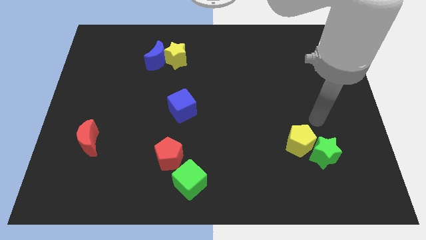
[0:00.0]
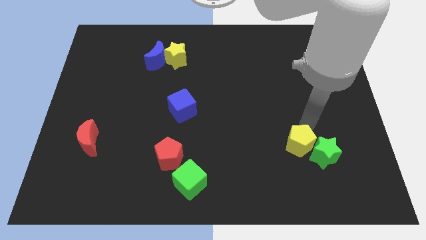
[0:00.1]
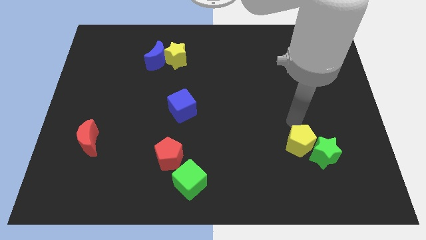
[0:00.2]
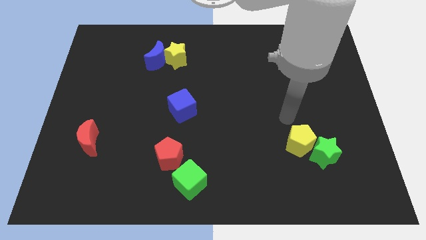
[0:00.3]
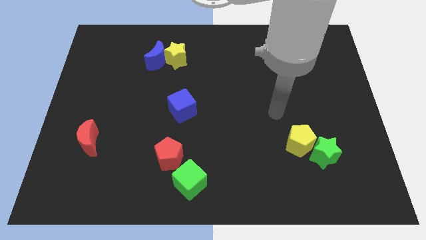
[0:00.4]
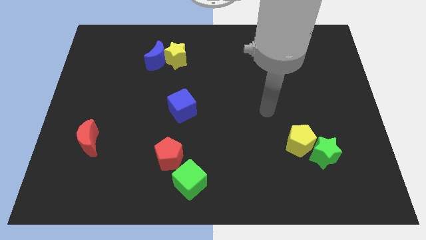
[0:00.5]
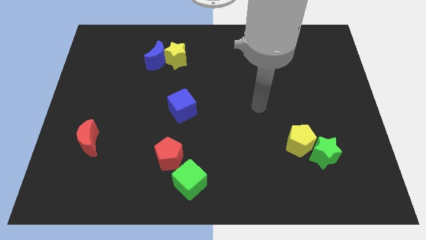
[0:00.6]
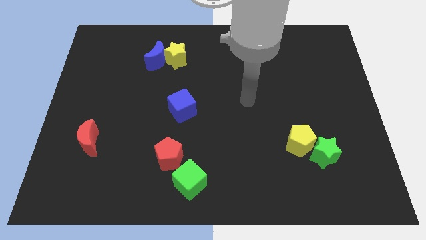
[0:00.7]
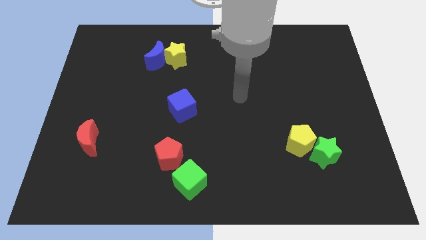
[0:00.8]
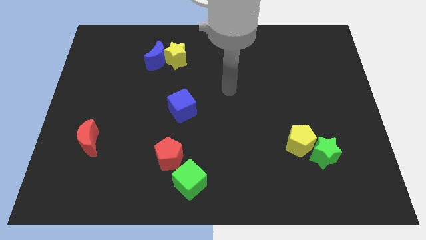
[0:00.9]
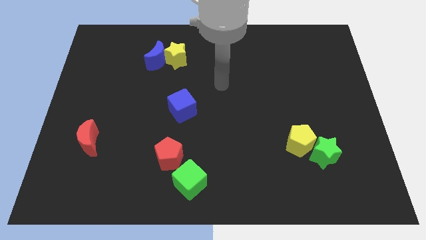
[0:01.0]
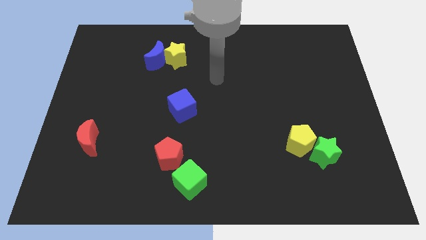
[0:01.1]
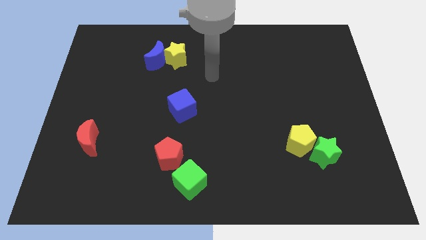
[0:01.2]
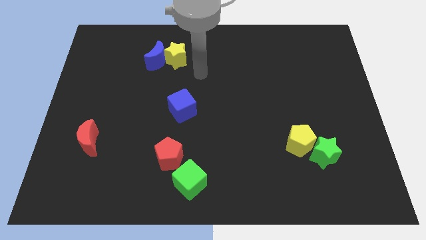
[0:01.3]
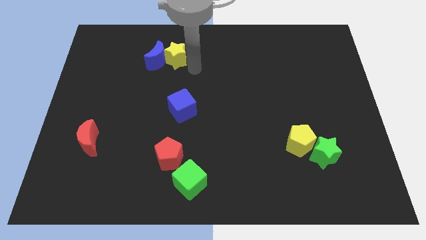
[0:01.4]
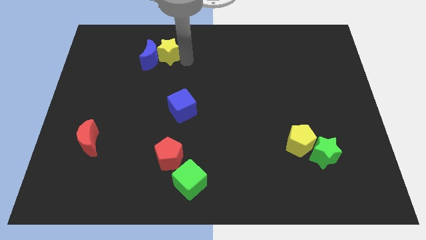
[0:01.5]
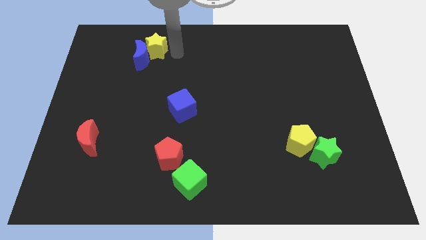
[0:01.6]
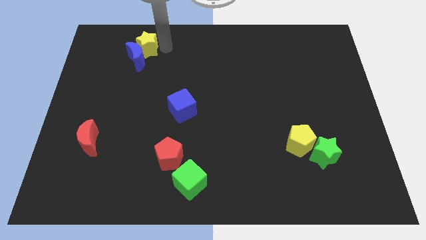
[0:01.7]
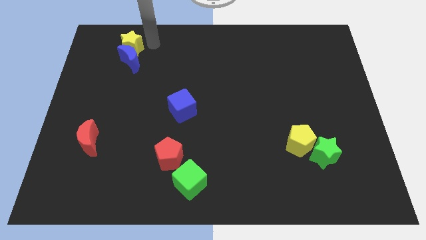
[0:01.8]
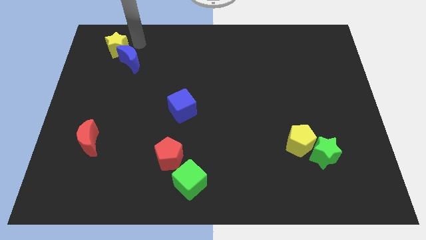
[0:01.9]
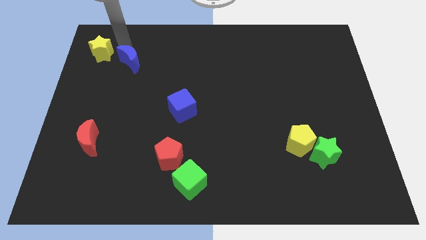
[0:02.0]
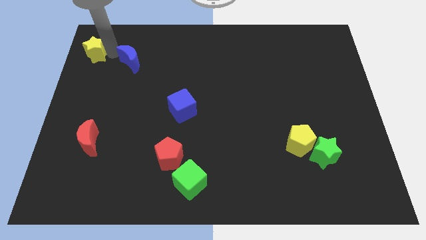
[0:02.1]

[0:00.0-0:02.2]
move the blue moon away from the yellow star

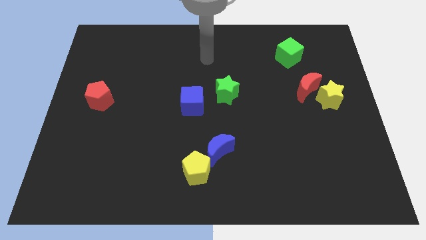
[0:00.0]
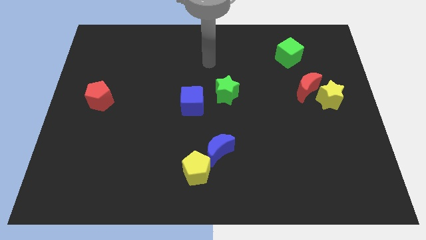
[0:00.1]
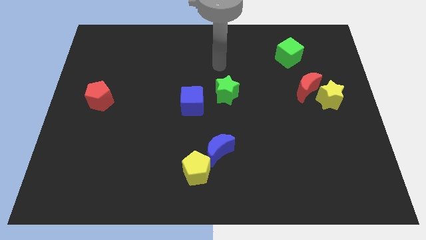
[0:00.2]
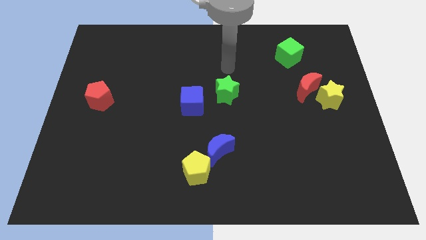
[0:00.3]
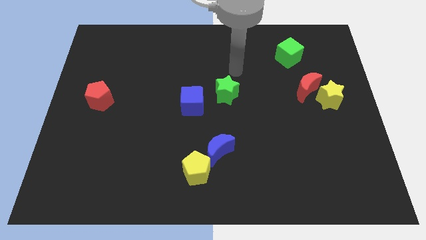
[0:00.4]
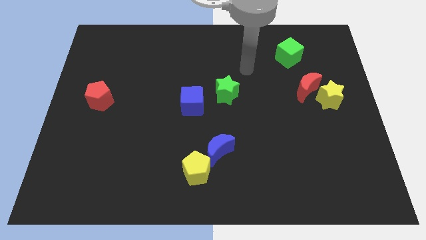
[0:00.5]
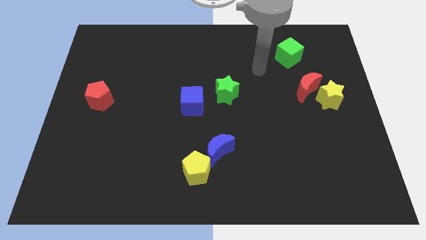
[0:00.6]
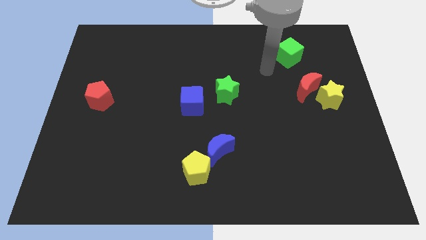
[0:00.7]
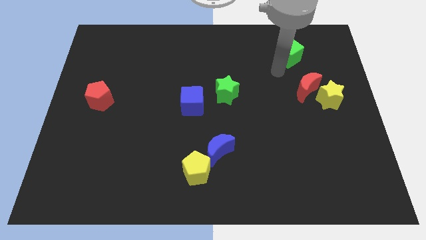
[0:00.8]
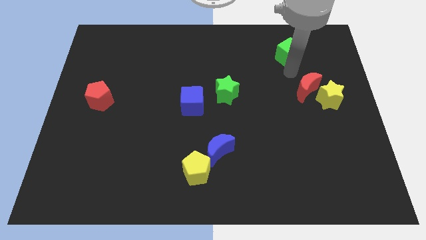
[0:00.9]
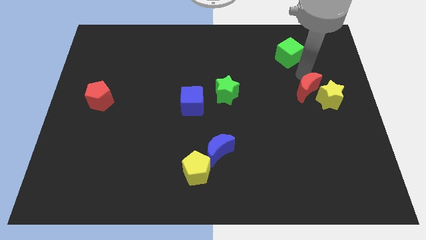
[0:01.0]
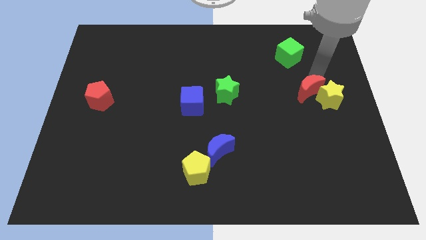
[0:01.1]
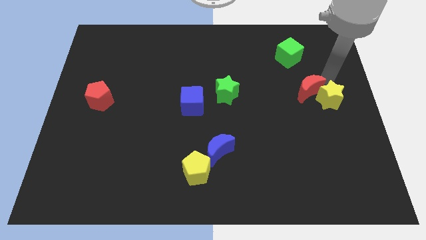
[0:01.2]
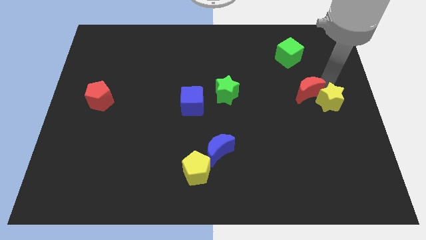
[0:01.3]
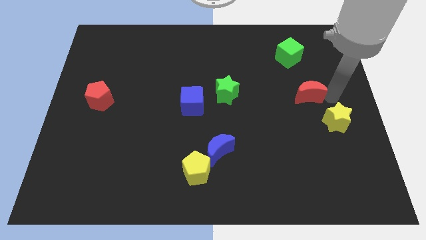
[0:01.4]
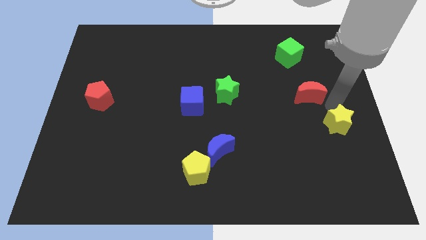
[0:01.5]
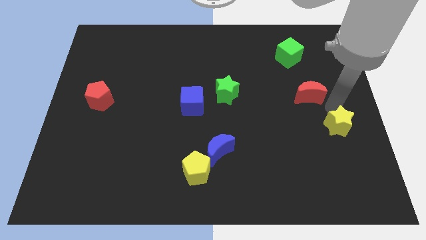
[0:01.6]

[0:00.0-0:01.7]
separate the red moon from the yellow star

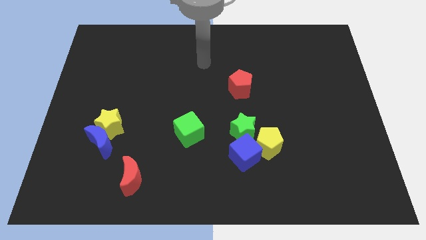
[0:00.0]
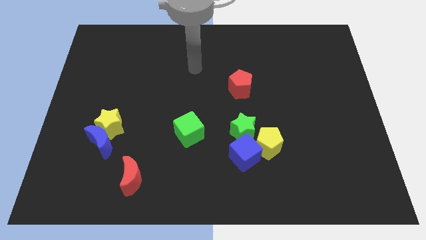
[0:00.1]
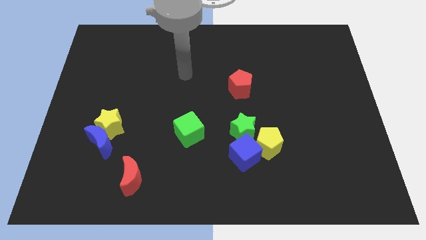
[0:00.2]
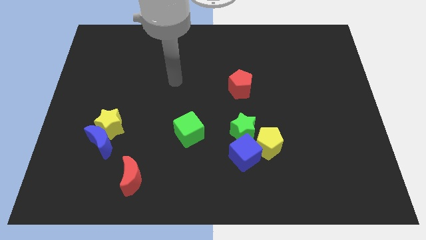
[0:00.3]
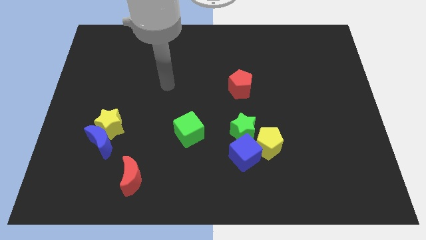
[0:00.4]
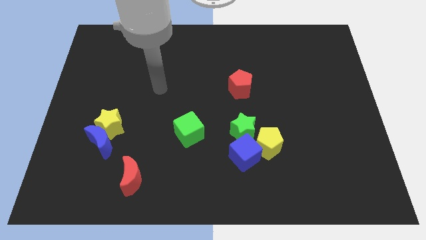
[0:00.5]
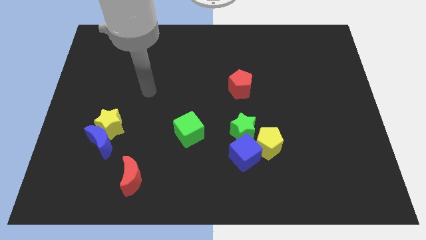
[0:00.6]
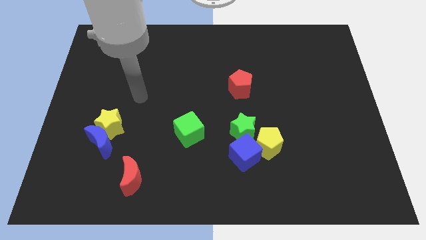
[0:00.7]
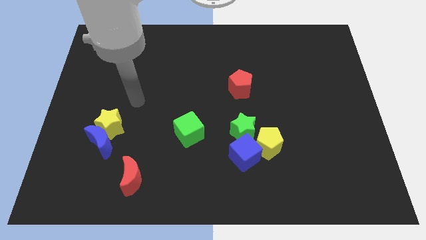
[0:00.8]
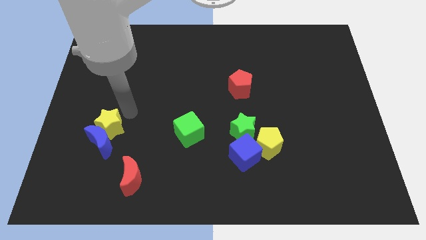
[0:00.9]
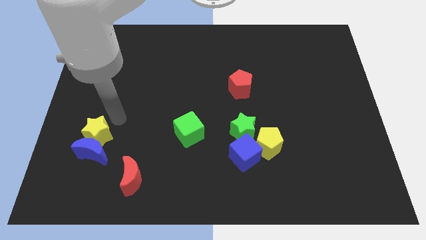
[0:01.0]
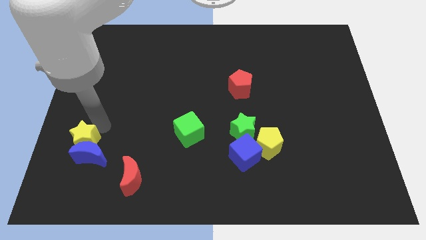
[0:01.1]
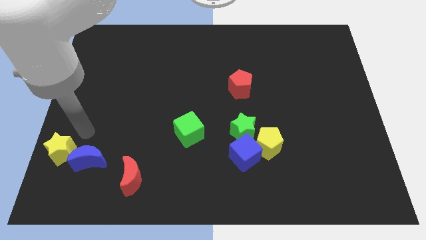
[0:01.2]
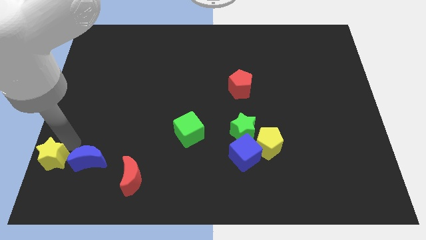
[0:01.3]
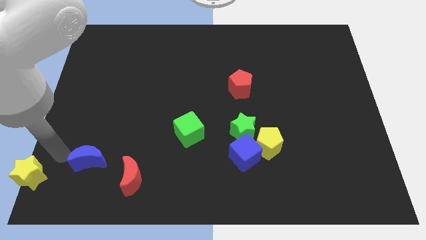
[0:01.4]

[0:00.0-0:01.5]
pull the blue moon apart from the yellow star

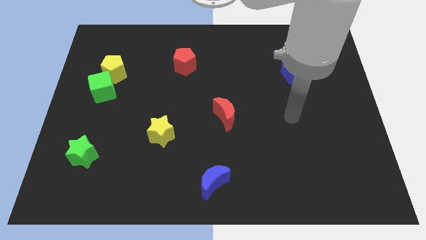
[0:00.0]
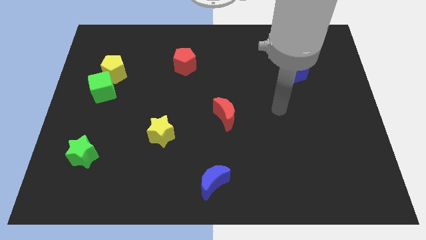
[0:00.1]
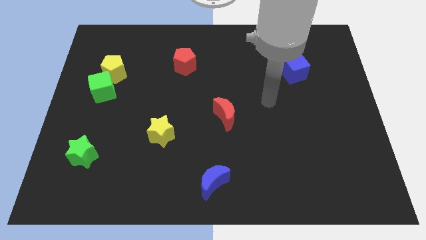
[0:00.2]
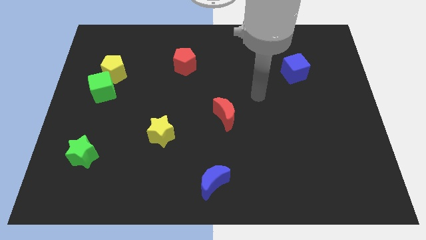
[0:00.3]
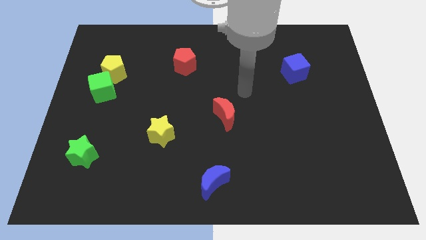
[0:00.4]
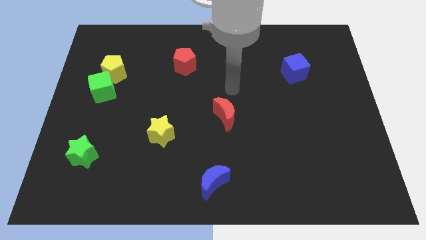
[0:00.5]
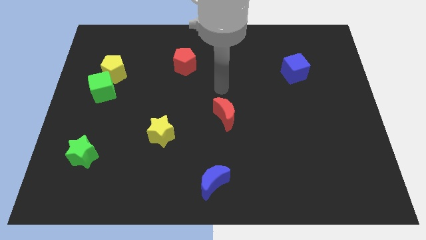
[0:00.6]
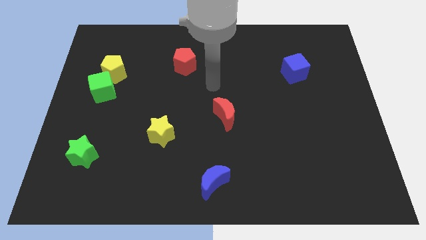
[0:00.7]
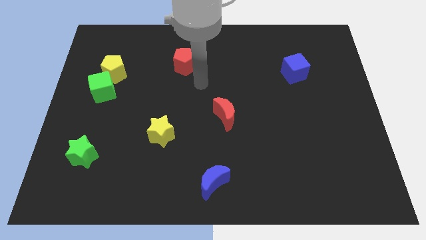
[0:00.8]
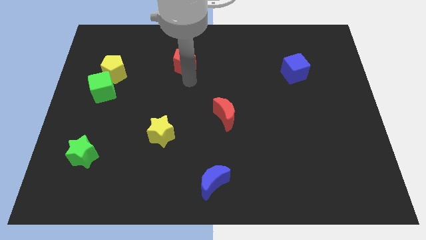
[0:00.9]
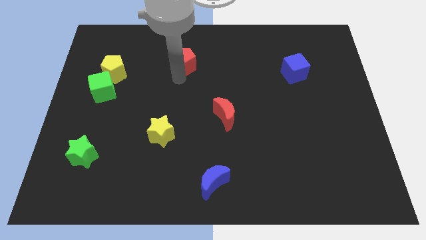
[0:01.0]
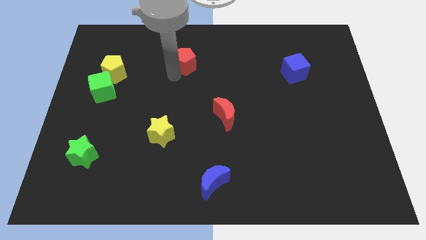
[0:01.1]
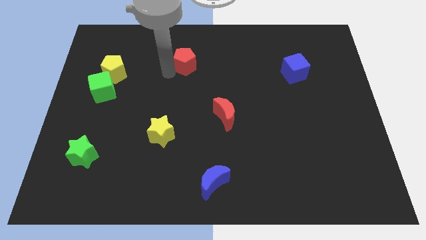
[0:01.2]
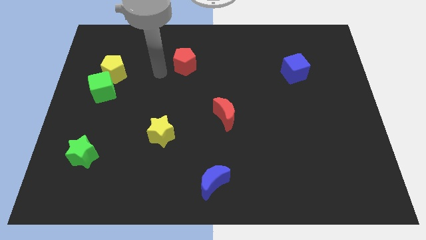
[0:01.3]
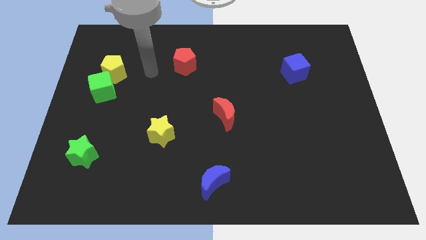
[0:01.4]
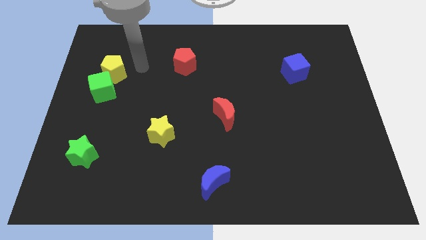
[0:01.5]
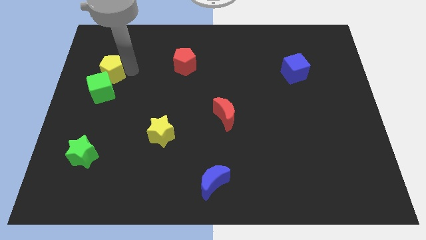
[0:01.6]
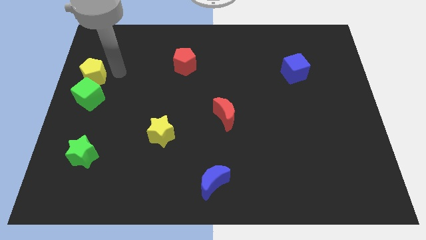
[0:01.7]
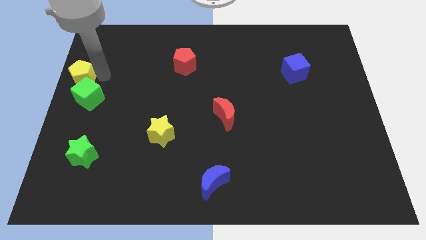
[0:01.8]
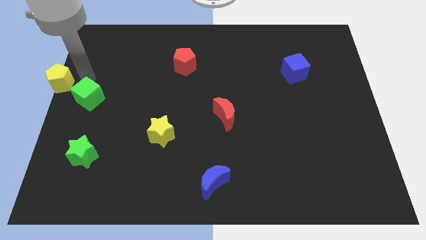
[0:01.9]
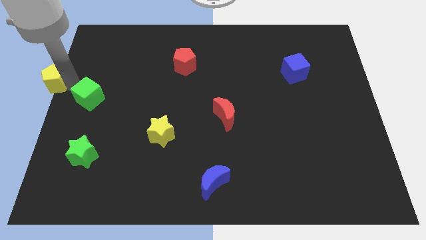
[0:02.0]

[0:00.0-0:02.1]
move the green cube away from the yellow pentagon

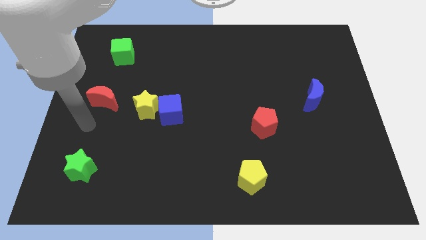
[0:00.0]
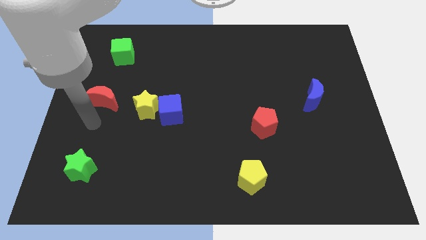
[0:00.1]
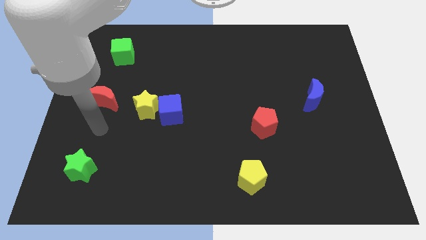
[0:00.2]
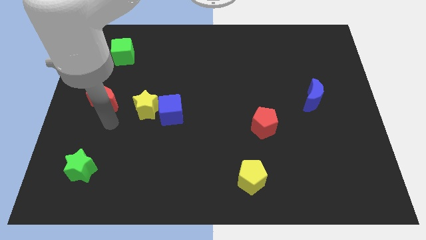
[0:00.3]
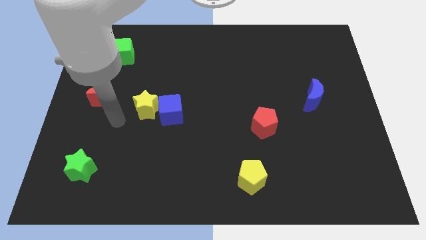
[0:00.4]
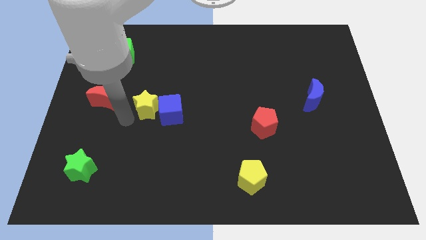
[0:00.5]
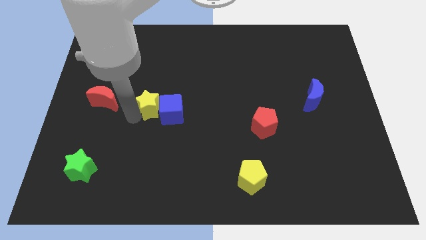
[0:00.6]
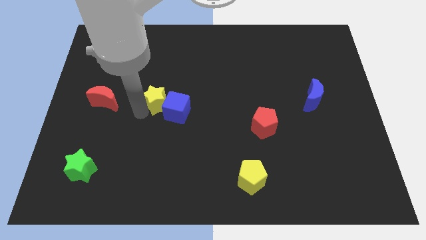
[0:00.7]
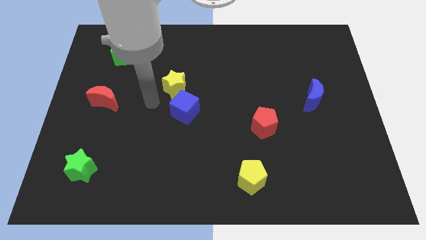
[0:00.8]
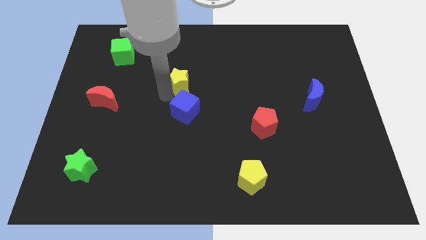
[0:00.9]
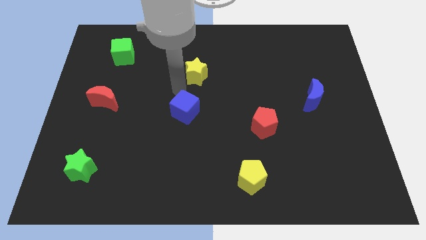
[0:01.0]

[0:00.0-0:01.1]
move the blue cube away from the yellow star

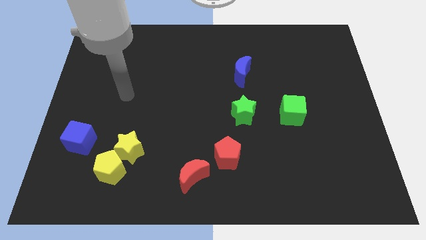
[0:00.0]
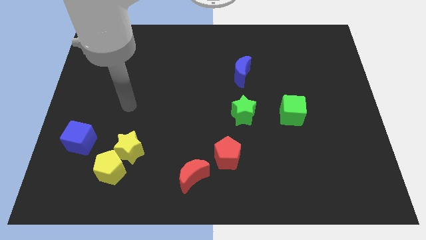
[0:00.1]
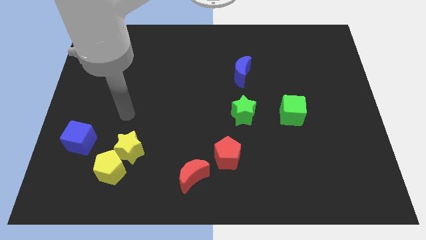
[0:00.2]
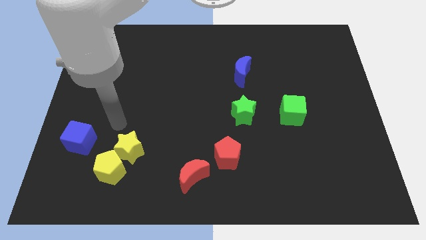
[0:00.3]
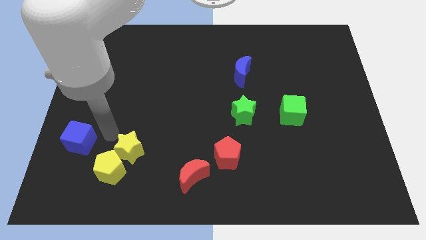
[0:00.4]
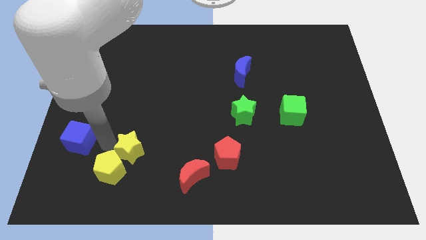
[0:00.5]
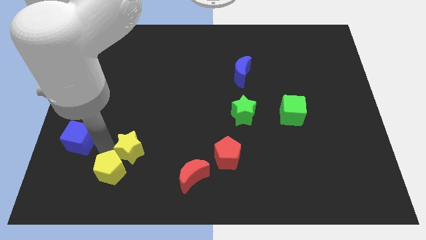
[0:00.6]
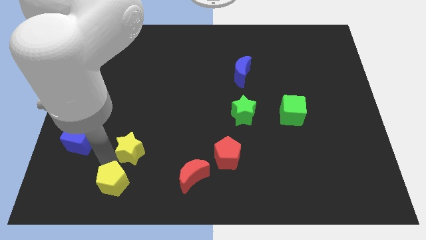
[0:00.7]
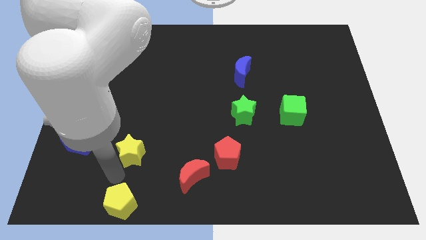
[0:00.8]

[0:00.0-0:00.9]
pull the yellow star apart from the yellow pentagon

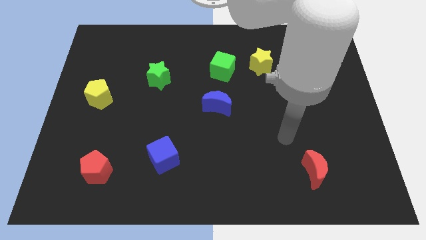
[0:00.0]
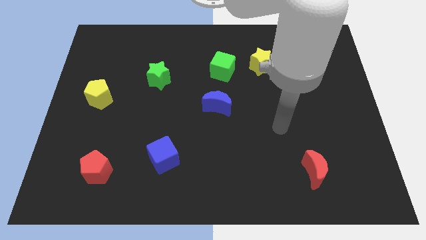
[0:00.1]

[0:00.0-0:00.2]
move the green cube away from the yellow star
